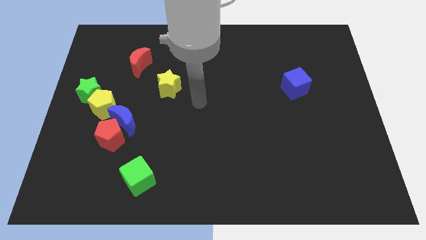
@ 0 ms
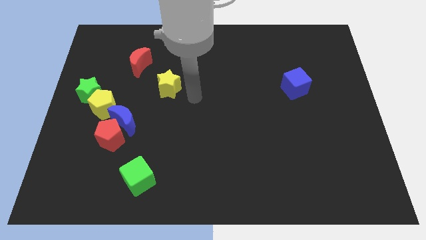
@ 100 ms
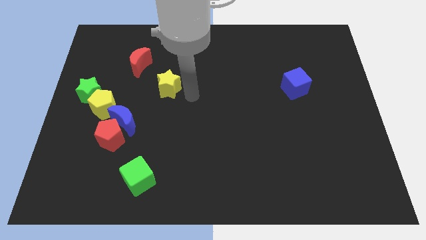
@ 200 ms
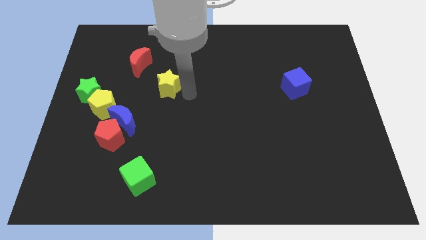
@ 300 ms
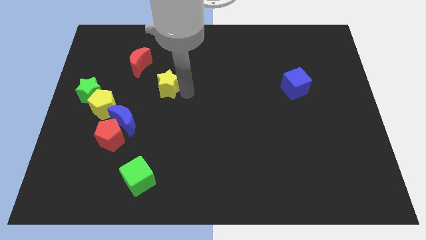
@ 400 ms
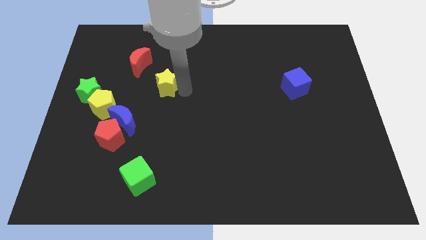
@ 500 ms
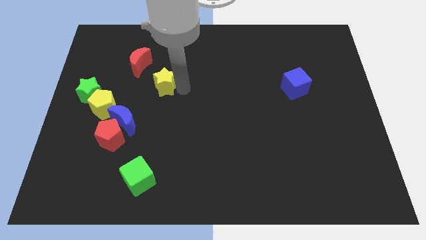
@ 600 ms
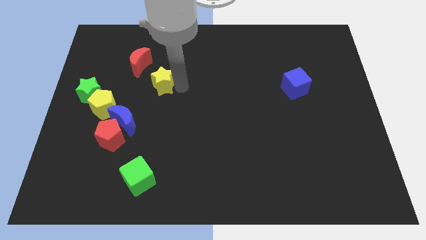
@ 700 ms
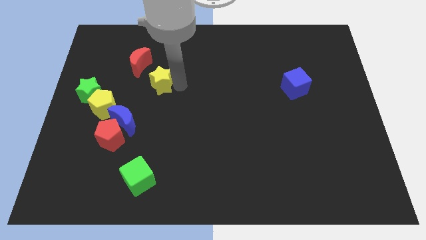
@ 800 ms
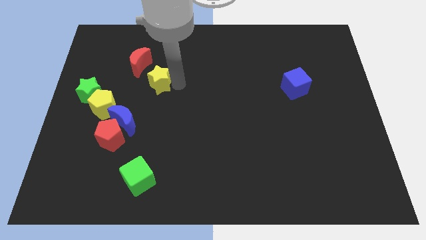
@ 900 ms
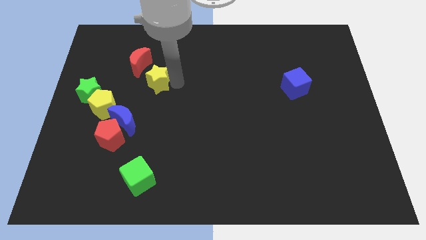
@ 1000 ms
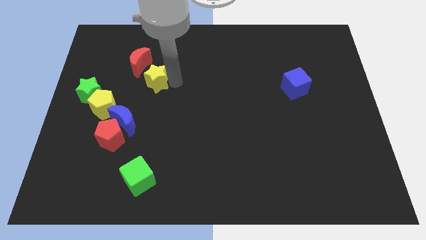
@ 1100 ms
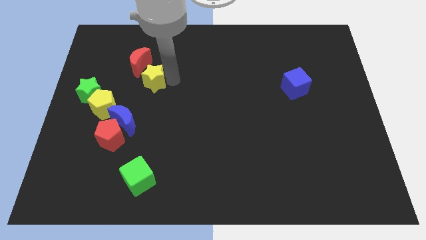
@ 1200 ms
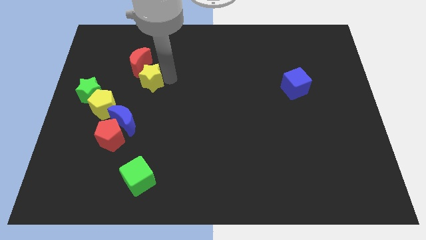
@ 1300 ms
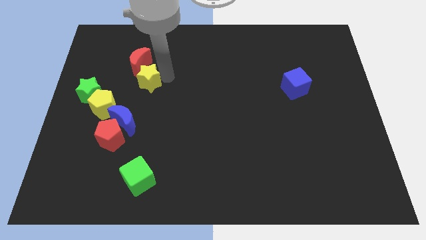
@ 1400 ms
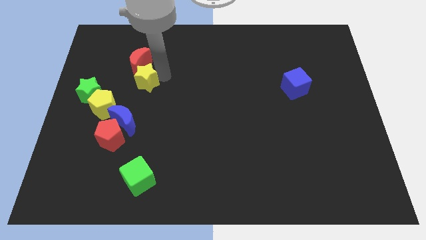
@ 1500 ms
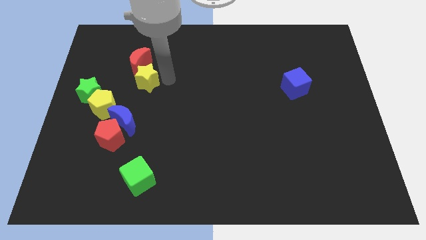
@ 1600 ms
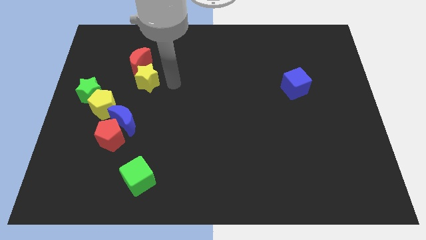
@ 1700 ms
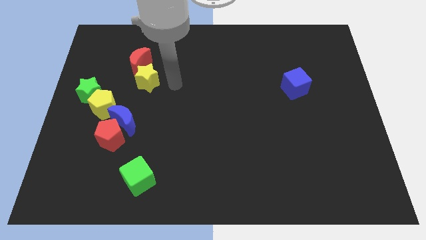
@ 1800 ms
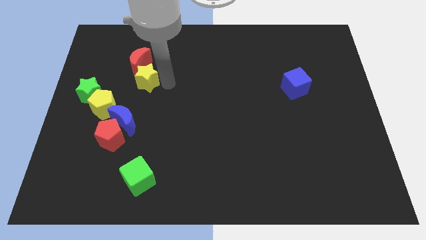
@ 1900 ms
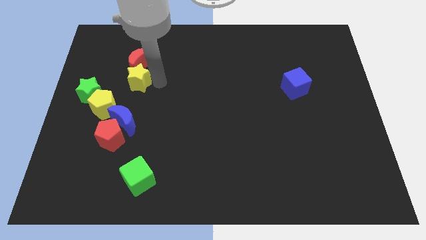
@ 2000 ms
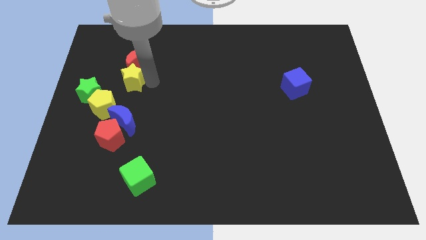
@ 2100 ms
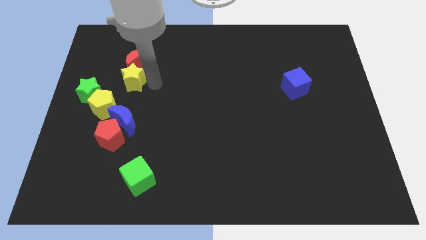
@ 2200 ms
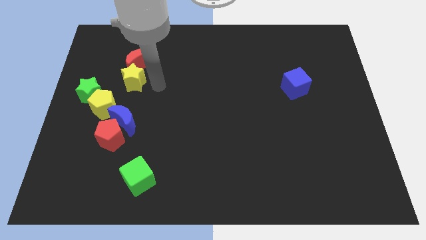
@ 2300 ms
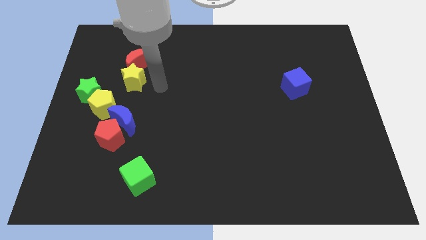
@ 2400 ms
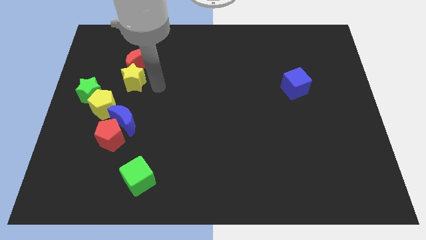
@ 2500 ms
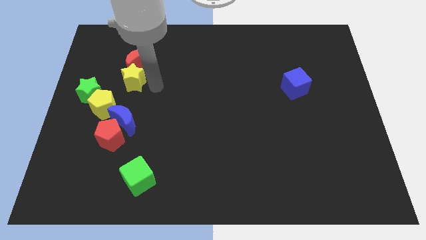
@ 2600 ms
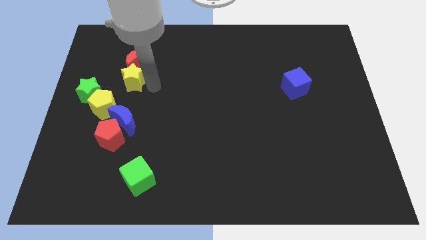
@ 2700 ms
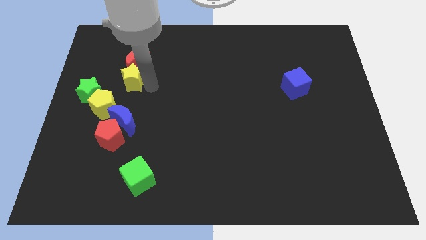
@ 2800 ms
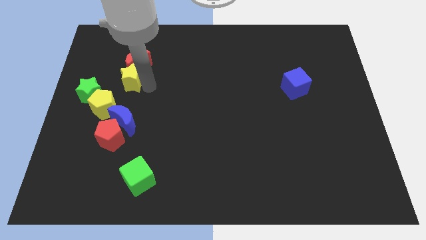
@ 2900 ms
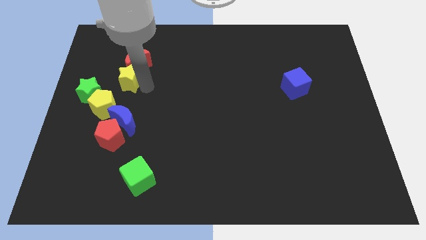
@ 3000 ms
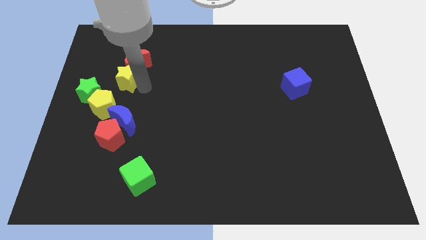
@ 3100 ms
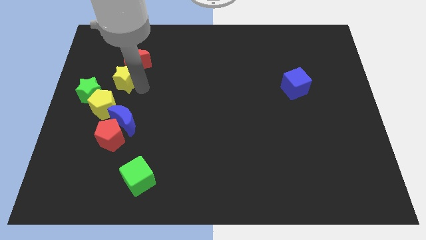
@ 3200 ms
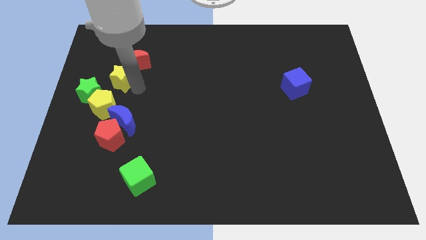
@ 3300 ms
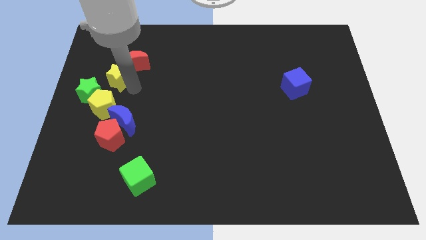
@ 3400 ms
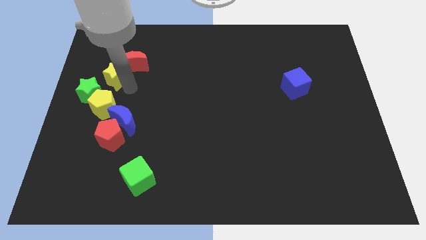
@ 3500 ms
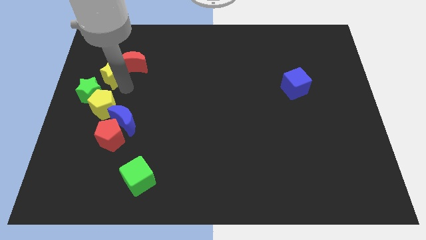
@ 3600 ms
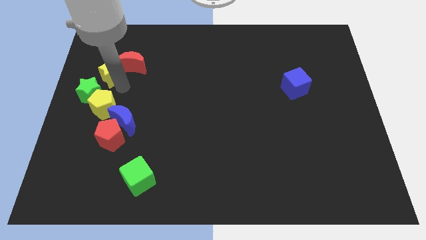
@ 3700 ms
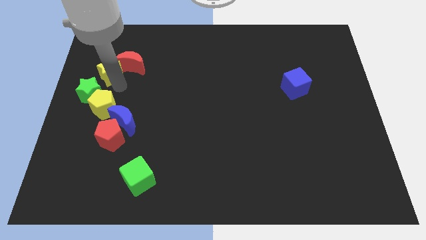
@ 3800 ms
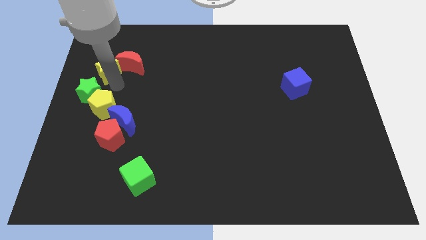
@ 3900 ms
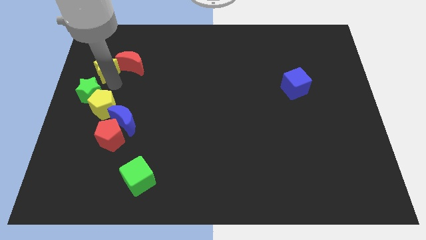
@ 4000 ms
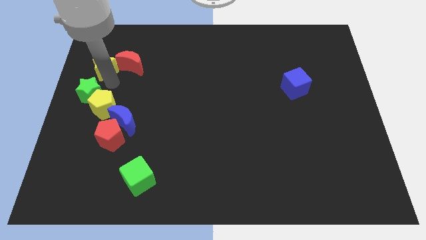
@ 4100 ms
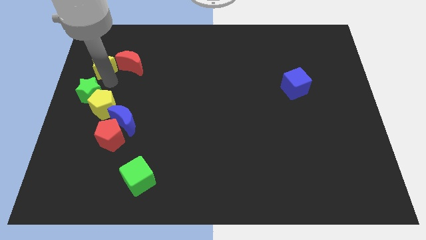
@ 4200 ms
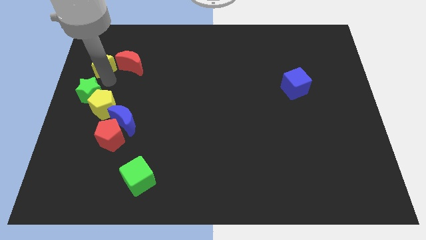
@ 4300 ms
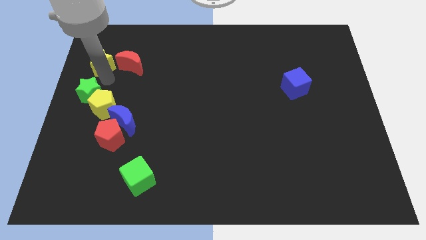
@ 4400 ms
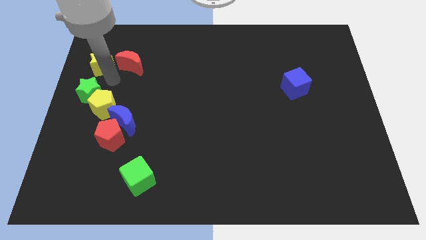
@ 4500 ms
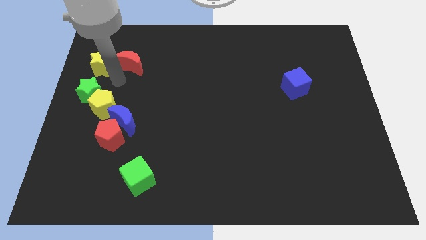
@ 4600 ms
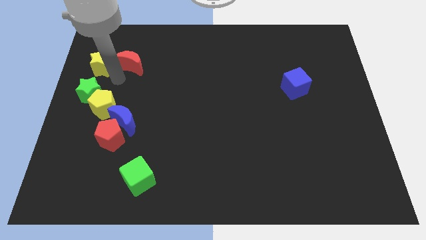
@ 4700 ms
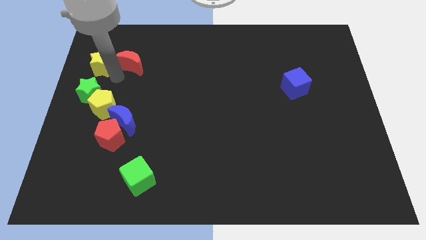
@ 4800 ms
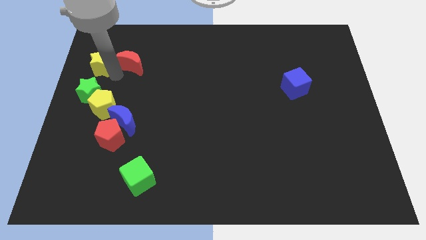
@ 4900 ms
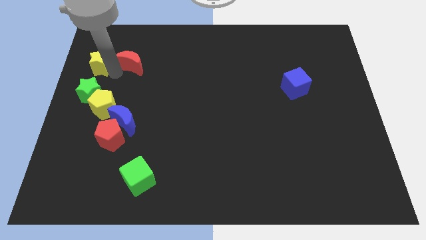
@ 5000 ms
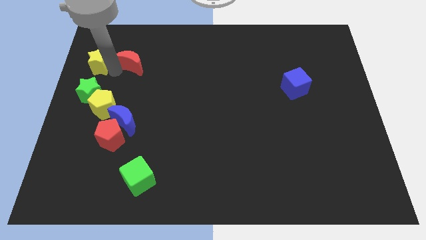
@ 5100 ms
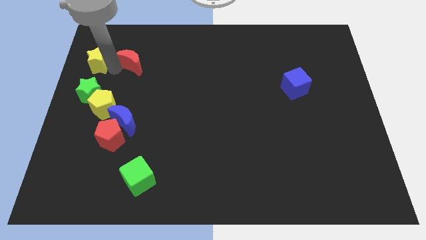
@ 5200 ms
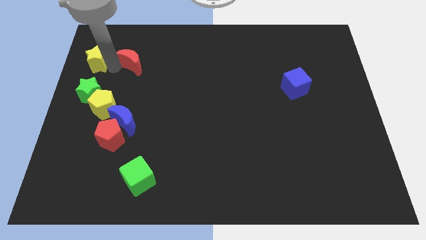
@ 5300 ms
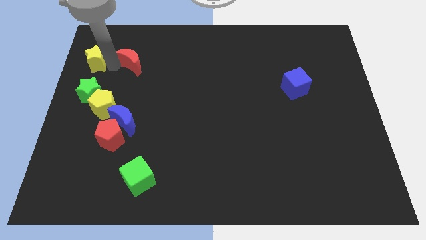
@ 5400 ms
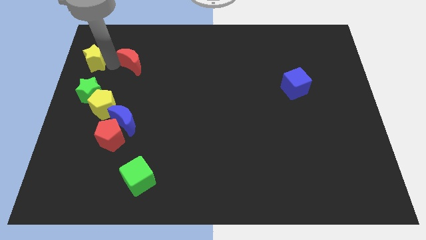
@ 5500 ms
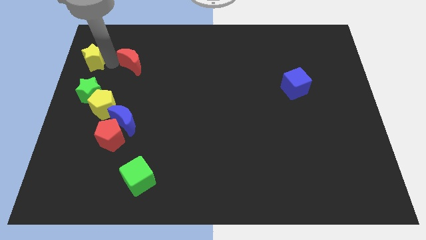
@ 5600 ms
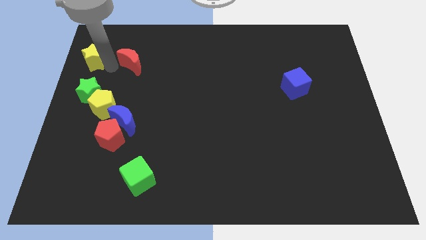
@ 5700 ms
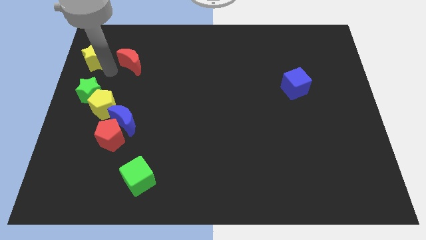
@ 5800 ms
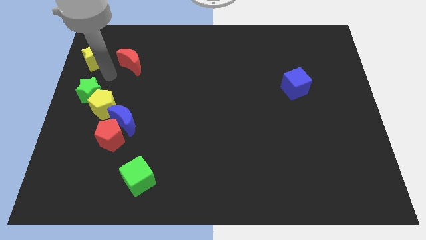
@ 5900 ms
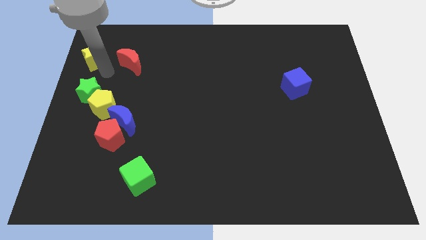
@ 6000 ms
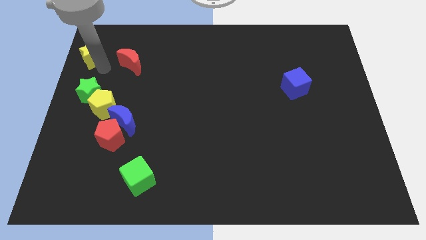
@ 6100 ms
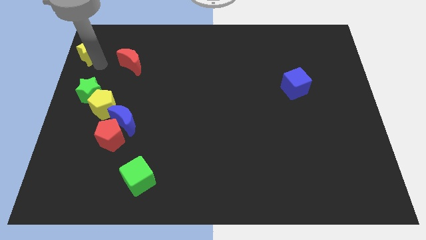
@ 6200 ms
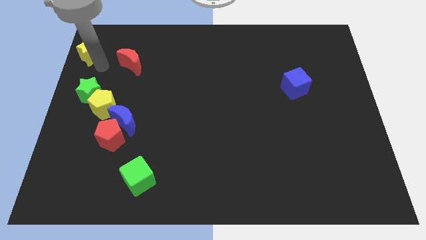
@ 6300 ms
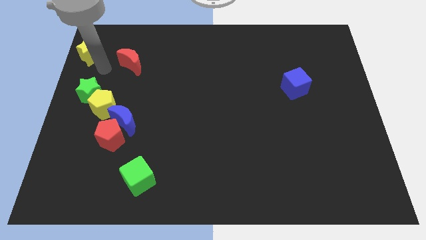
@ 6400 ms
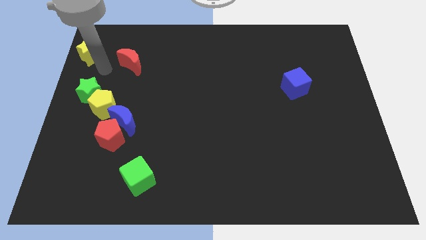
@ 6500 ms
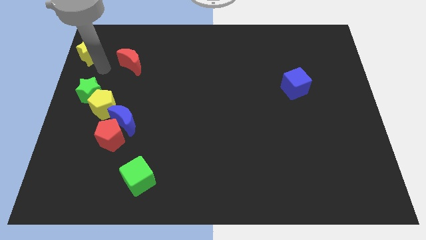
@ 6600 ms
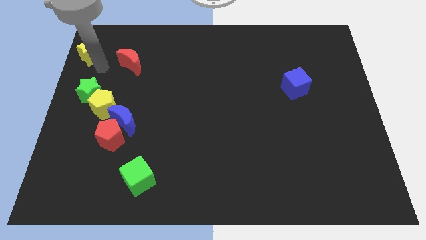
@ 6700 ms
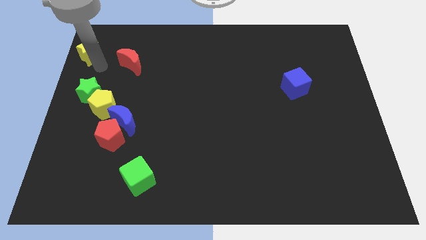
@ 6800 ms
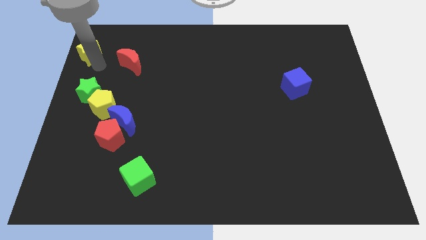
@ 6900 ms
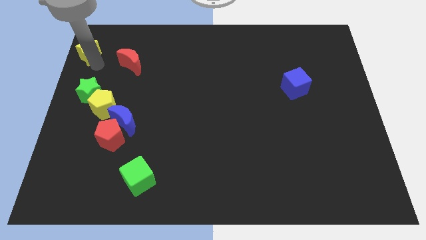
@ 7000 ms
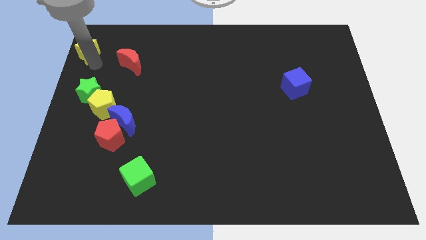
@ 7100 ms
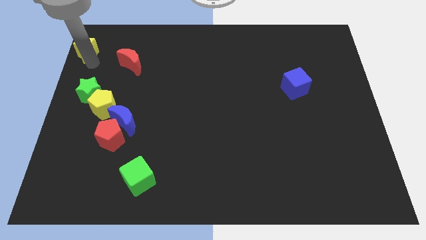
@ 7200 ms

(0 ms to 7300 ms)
put the yellow star to the upper left corner
